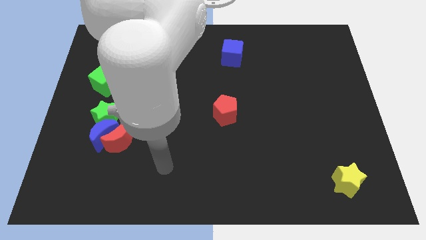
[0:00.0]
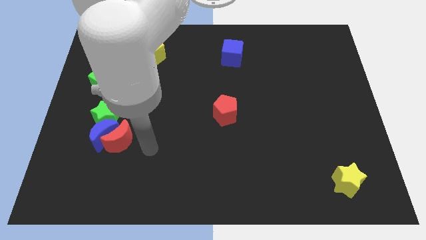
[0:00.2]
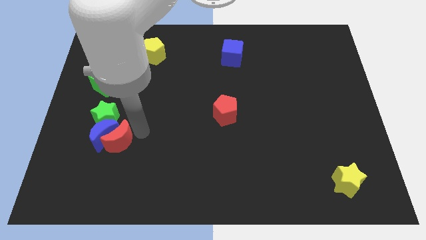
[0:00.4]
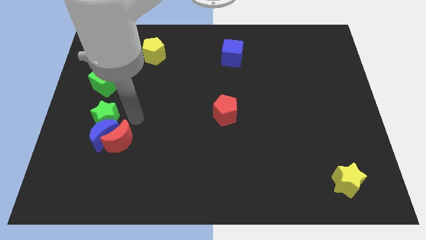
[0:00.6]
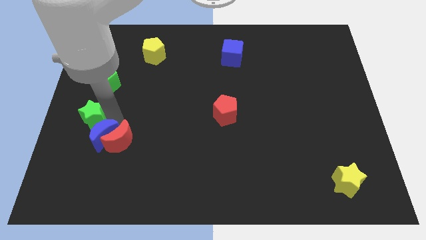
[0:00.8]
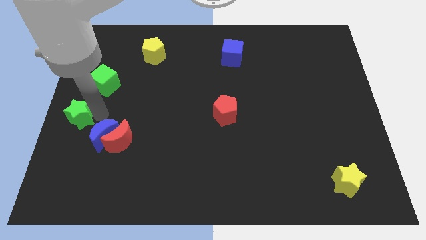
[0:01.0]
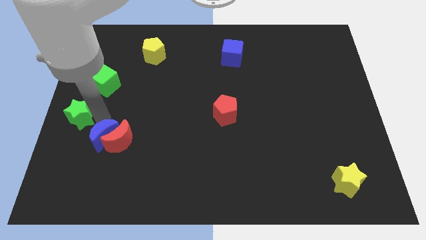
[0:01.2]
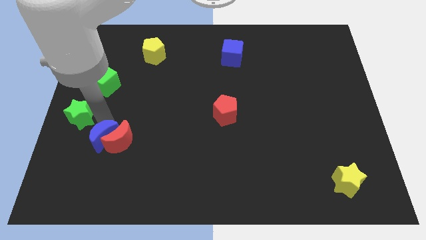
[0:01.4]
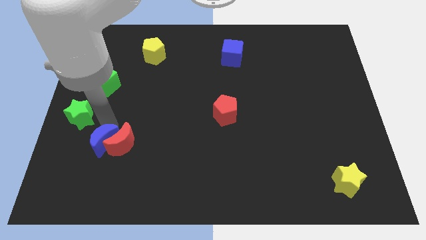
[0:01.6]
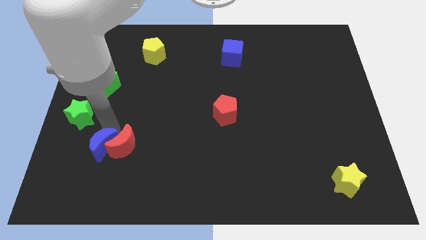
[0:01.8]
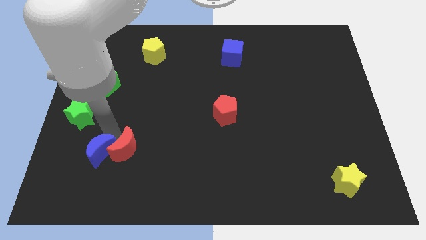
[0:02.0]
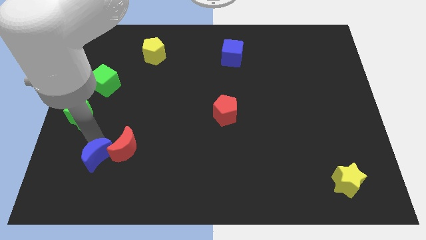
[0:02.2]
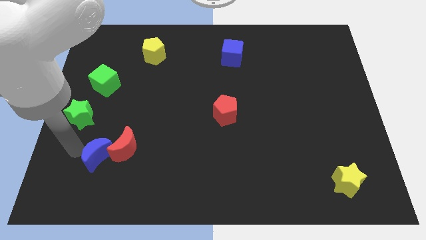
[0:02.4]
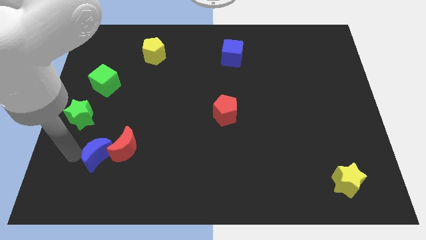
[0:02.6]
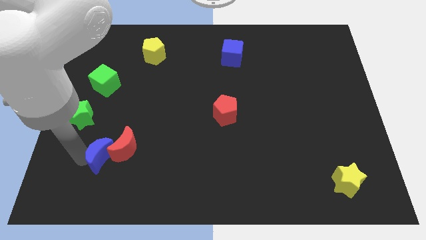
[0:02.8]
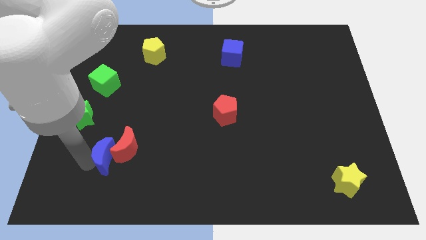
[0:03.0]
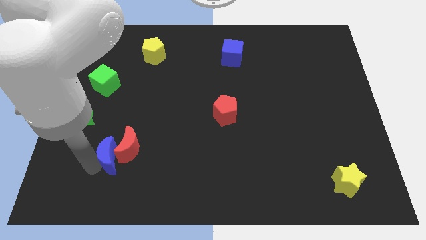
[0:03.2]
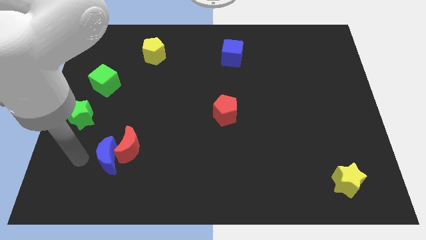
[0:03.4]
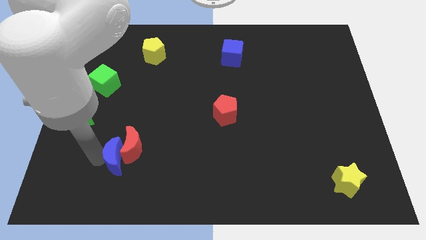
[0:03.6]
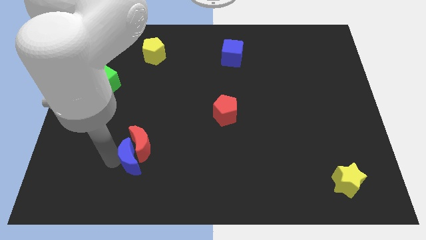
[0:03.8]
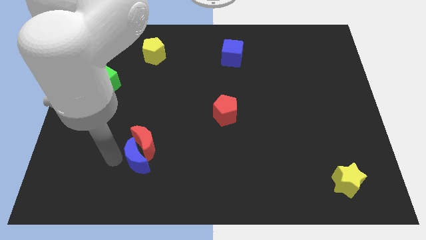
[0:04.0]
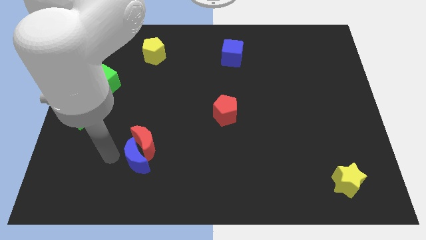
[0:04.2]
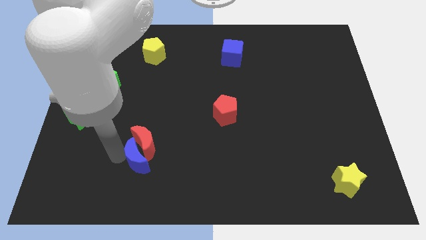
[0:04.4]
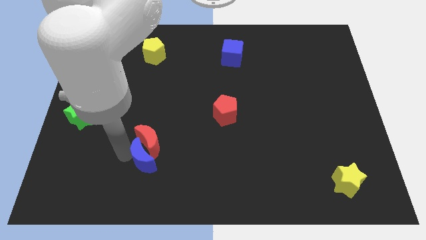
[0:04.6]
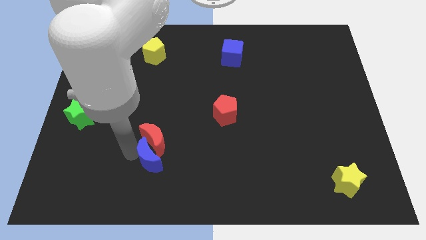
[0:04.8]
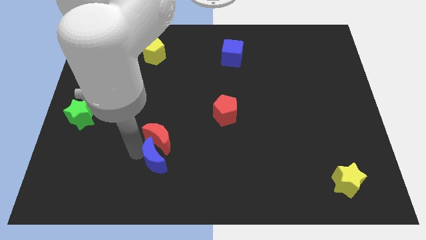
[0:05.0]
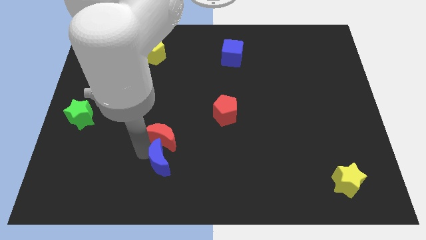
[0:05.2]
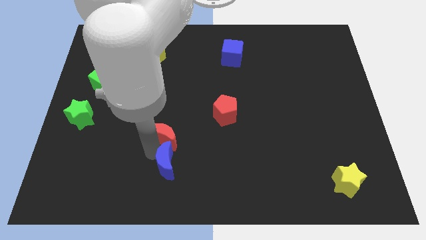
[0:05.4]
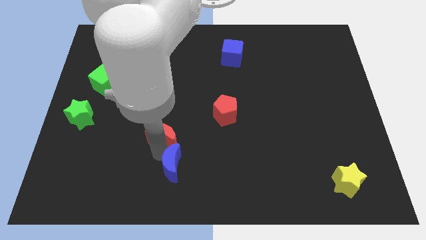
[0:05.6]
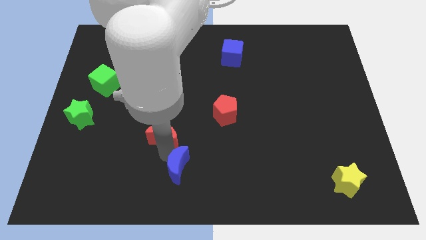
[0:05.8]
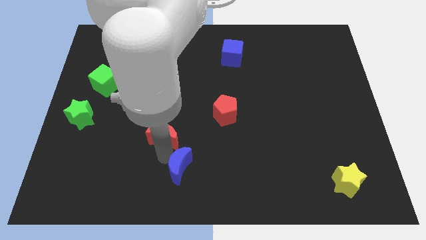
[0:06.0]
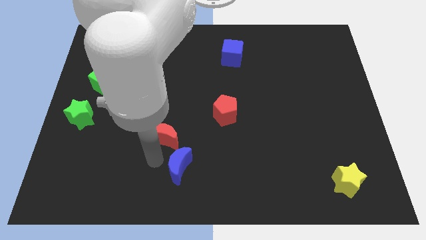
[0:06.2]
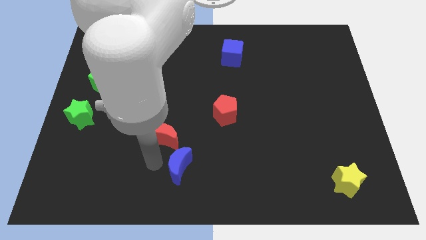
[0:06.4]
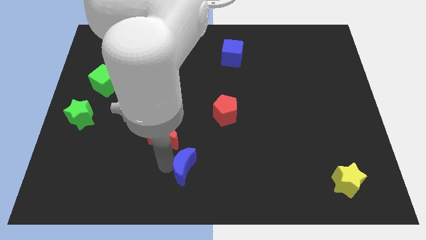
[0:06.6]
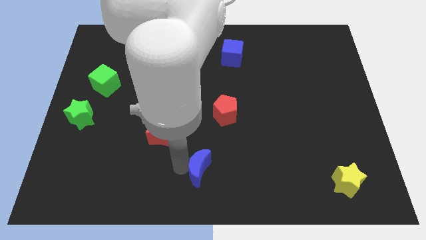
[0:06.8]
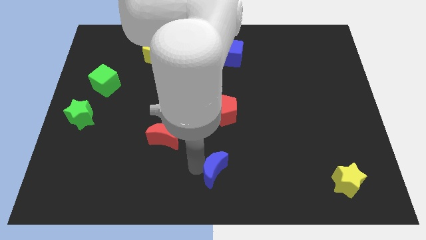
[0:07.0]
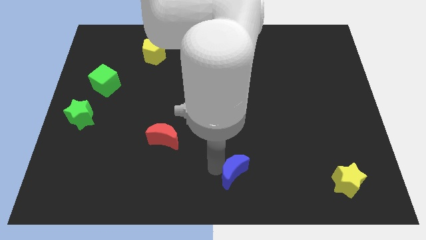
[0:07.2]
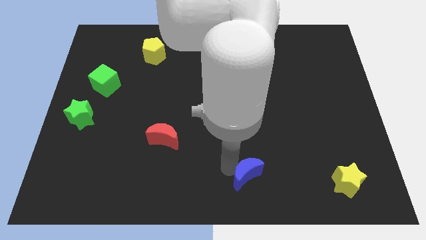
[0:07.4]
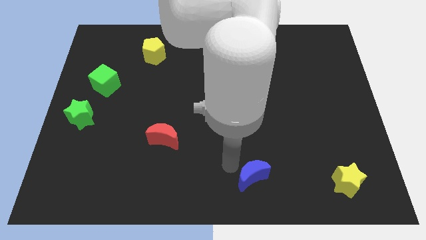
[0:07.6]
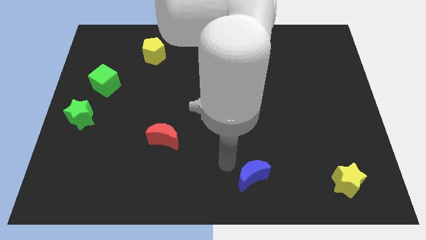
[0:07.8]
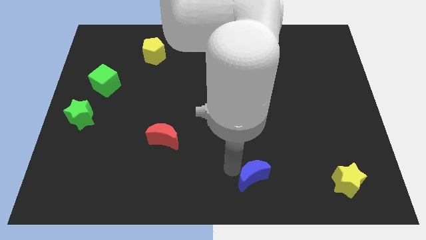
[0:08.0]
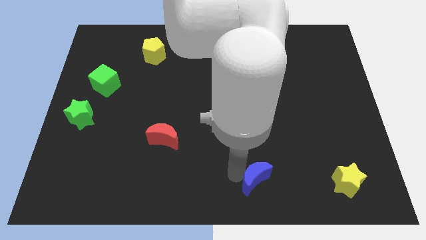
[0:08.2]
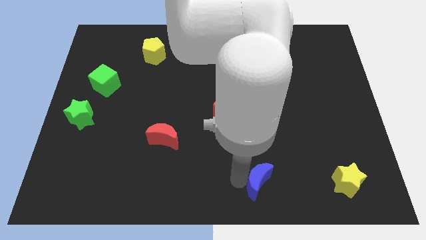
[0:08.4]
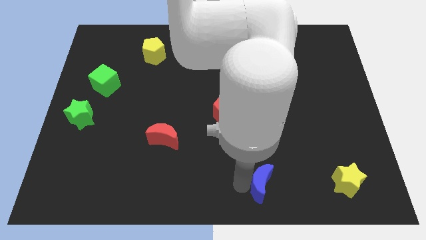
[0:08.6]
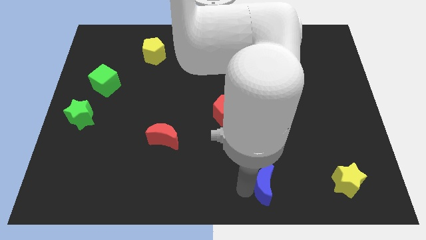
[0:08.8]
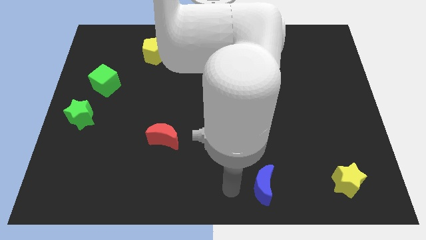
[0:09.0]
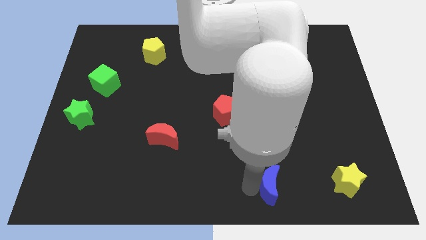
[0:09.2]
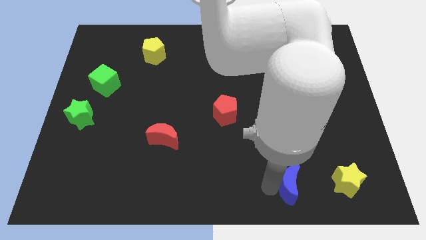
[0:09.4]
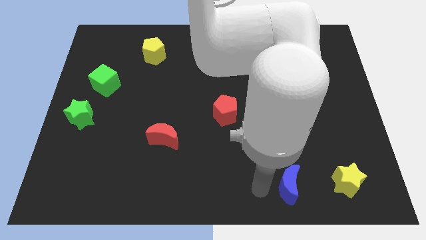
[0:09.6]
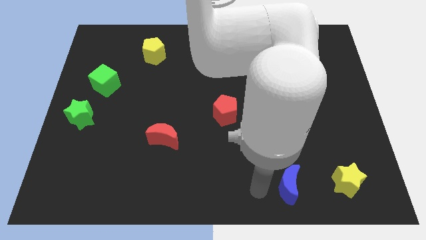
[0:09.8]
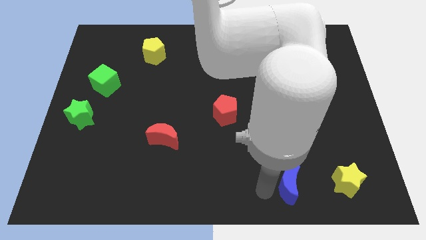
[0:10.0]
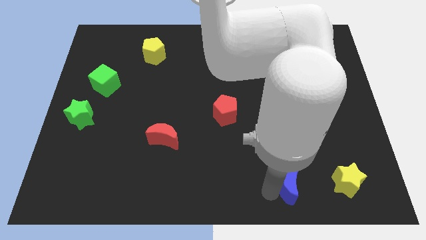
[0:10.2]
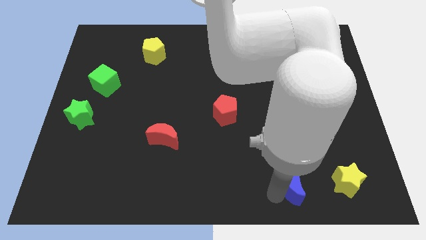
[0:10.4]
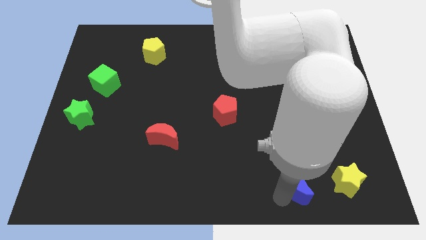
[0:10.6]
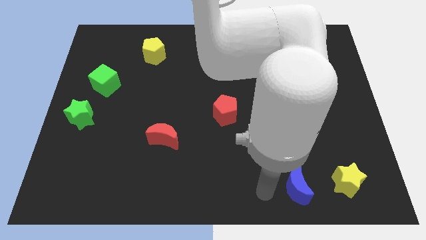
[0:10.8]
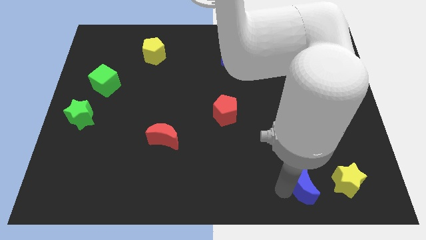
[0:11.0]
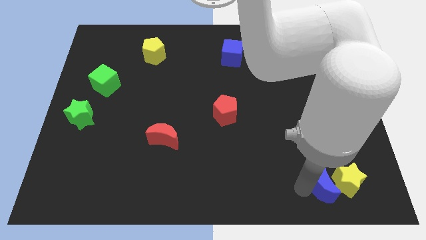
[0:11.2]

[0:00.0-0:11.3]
push the blue moon to the yellow star
